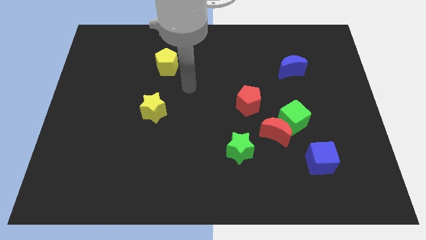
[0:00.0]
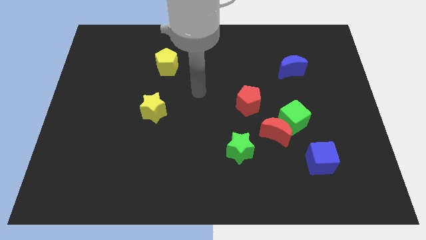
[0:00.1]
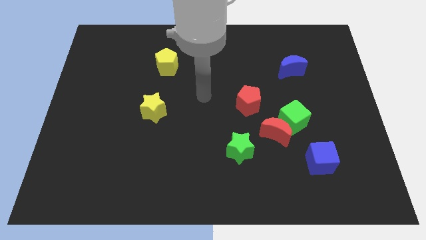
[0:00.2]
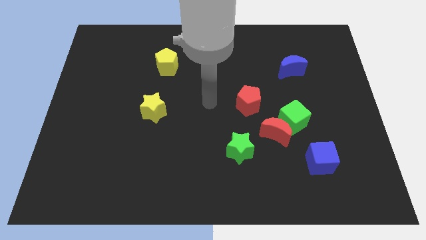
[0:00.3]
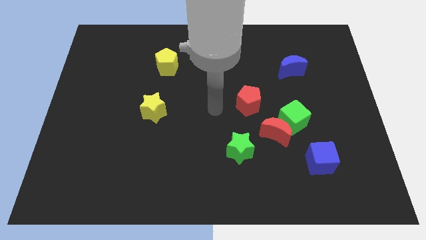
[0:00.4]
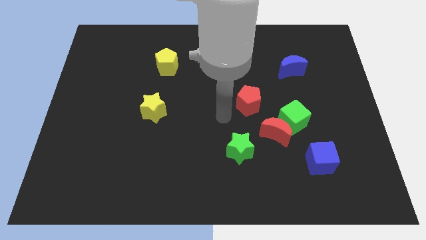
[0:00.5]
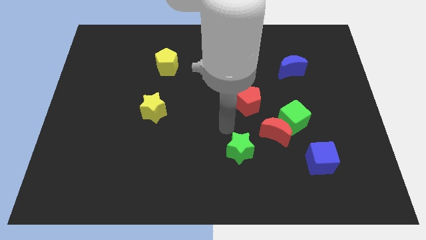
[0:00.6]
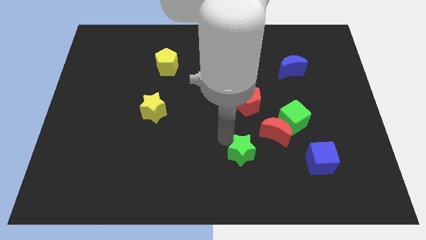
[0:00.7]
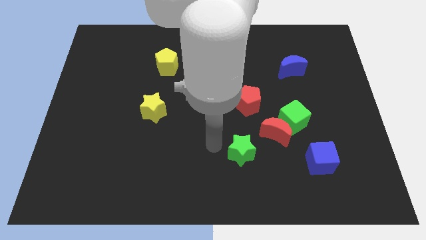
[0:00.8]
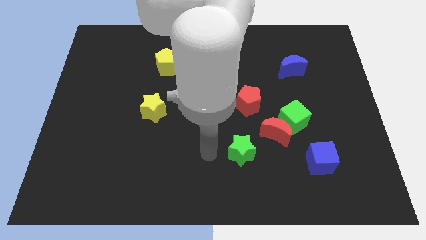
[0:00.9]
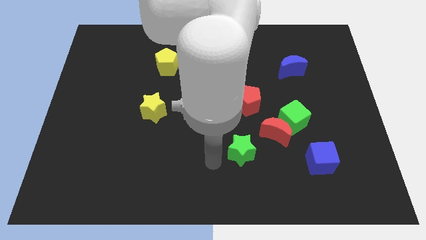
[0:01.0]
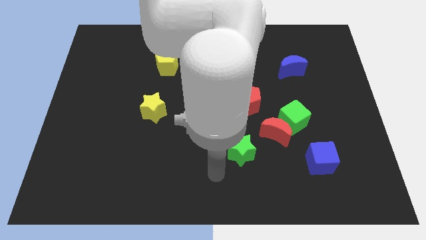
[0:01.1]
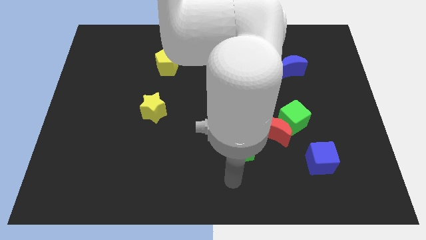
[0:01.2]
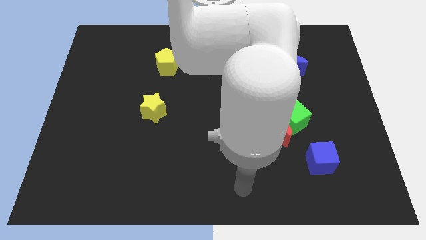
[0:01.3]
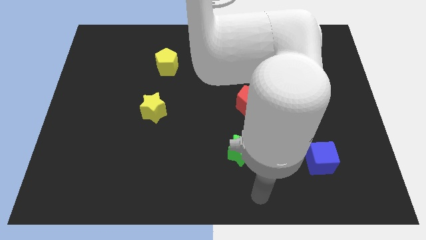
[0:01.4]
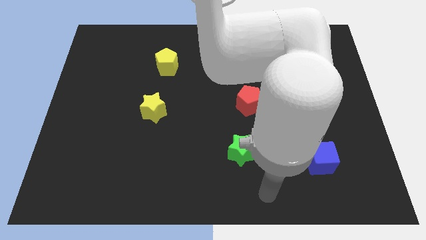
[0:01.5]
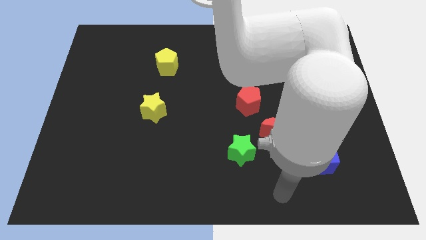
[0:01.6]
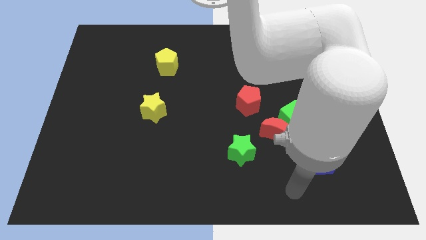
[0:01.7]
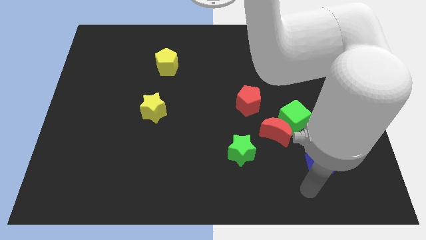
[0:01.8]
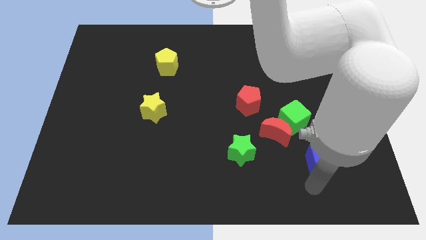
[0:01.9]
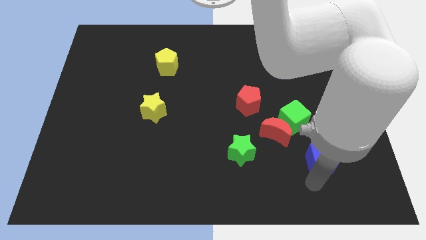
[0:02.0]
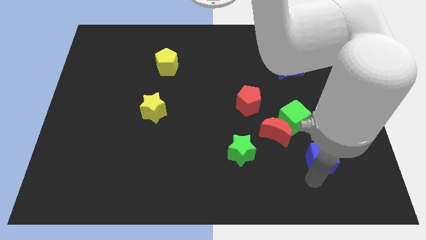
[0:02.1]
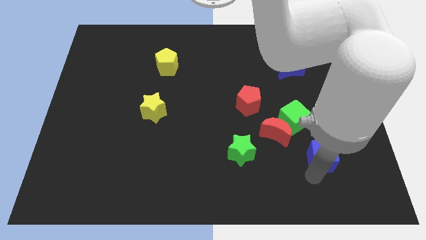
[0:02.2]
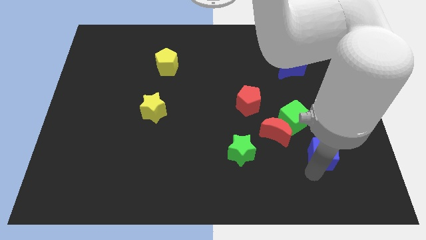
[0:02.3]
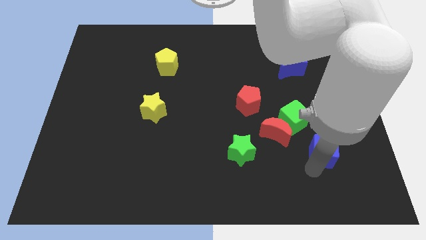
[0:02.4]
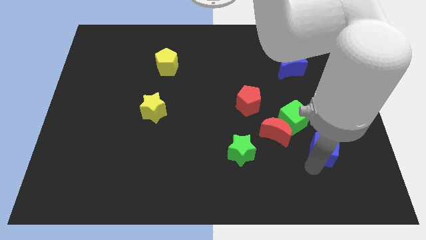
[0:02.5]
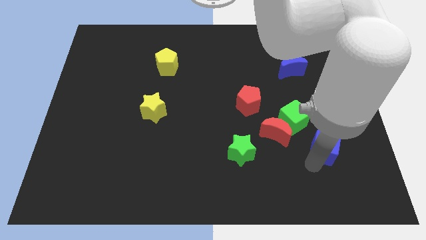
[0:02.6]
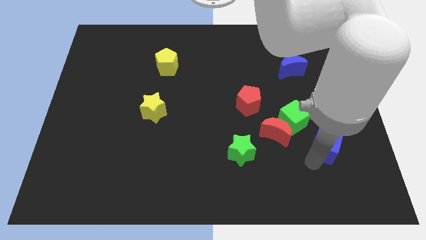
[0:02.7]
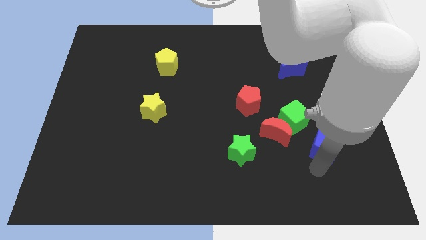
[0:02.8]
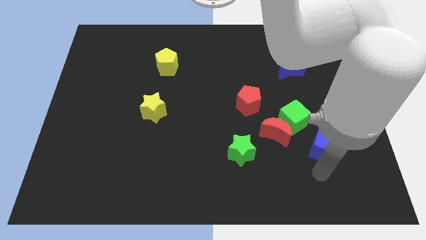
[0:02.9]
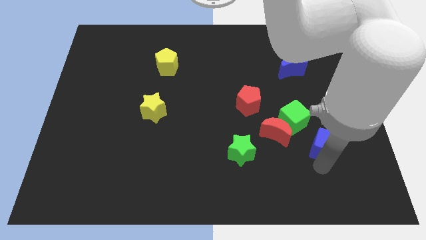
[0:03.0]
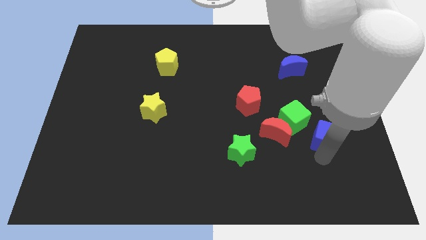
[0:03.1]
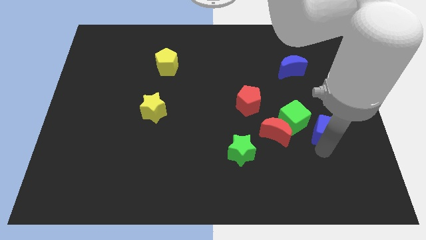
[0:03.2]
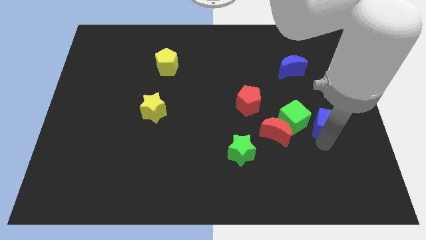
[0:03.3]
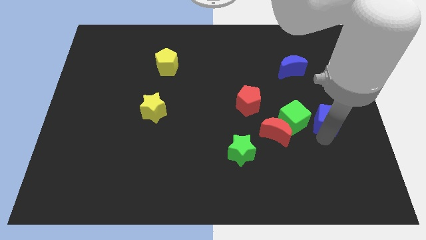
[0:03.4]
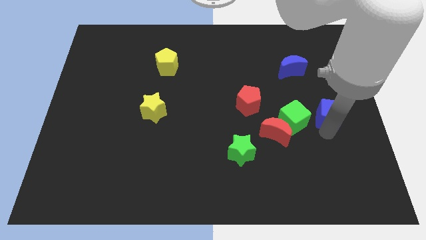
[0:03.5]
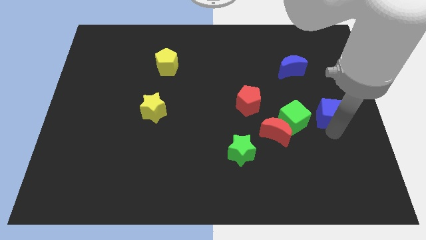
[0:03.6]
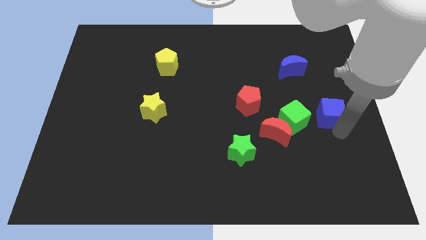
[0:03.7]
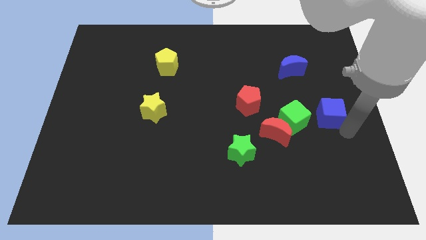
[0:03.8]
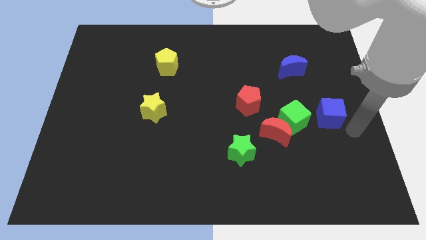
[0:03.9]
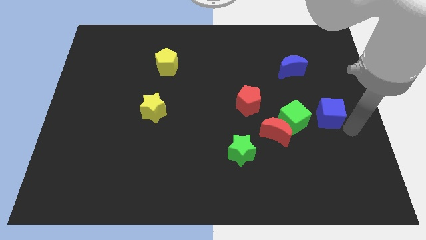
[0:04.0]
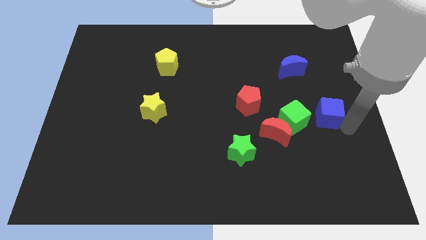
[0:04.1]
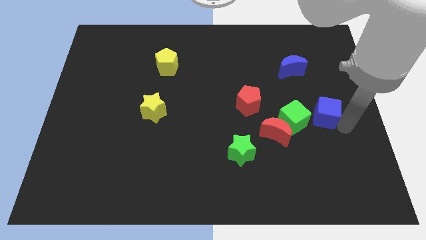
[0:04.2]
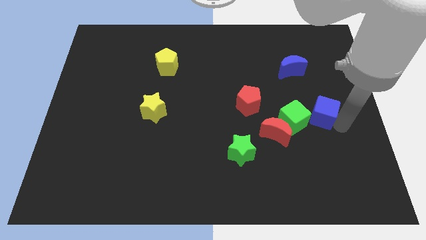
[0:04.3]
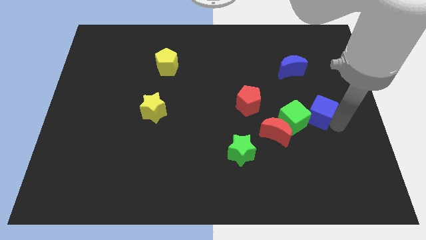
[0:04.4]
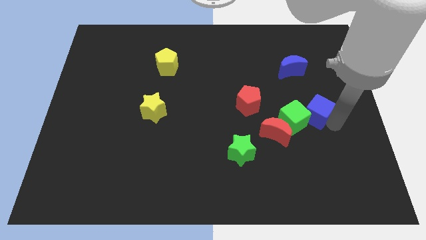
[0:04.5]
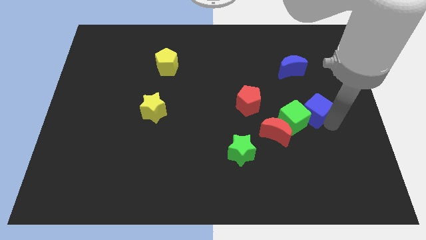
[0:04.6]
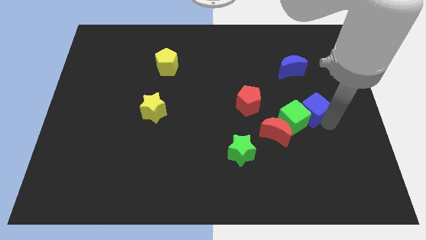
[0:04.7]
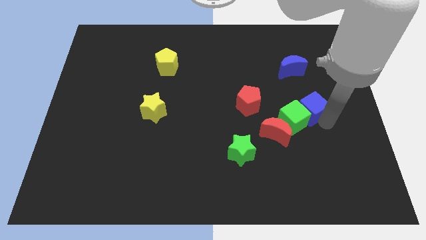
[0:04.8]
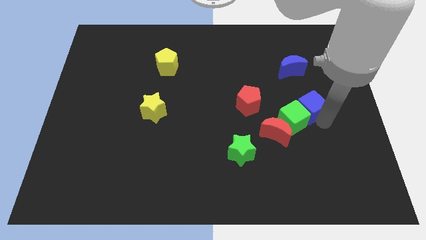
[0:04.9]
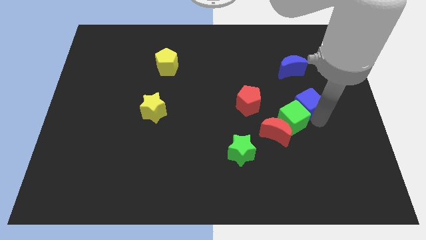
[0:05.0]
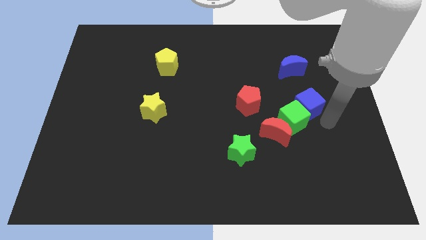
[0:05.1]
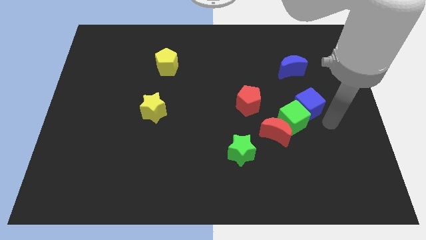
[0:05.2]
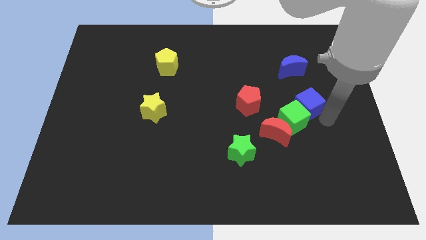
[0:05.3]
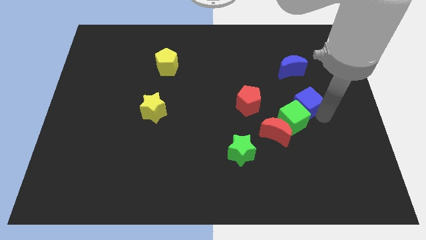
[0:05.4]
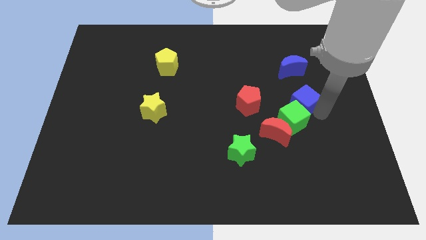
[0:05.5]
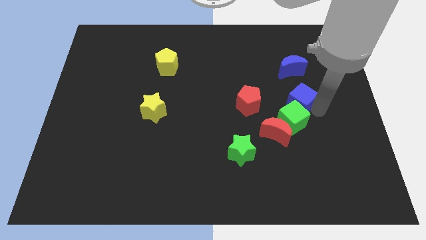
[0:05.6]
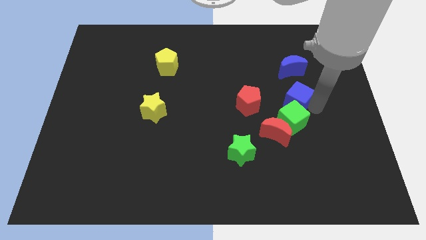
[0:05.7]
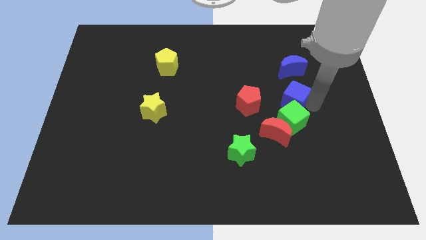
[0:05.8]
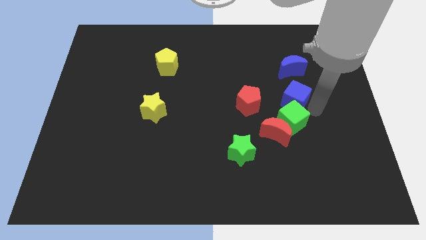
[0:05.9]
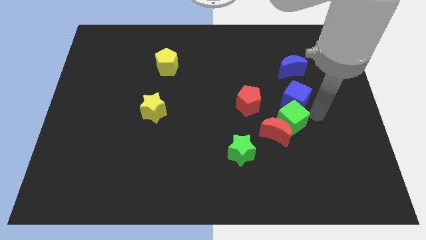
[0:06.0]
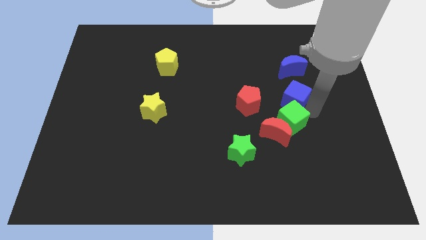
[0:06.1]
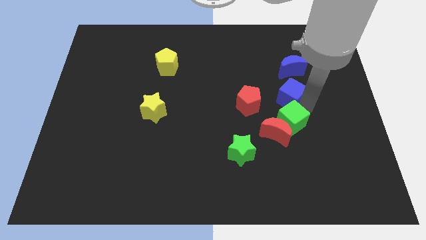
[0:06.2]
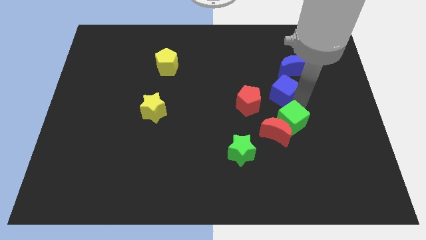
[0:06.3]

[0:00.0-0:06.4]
put the blue cube to the bottom left of the blue moon

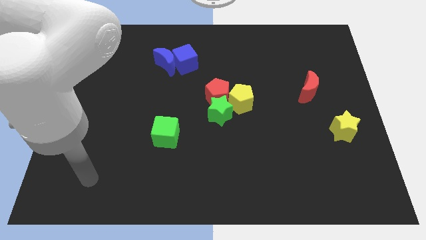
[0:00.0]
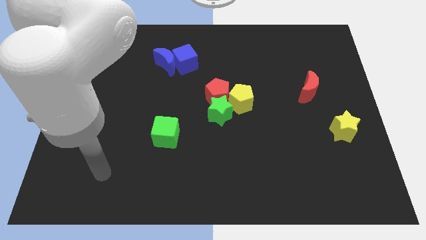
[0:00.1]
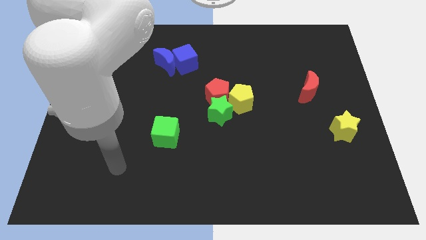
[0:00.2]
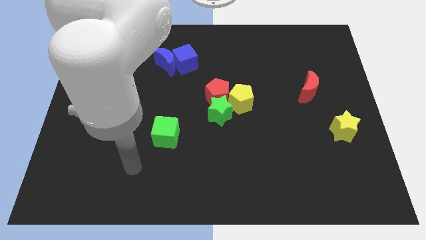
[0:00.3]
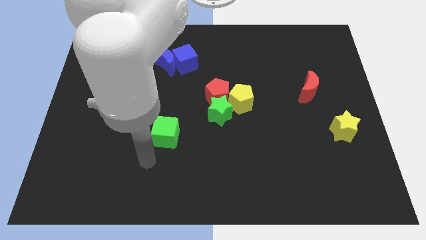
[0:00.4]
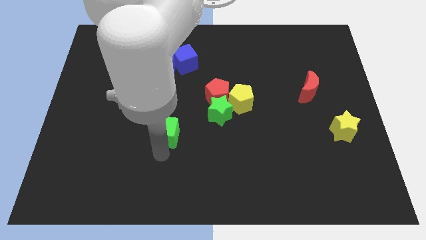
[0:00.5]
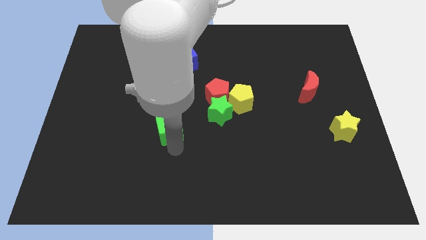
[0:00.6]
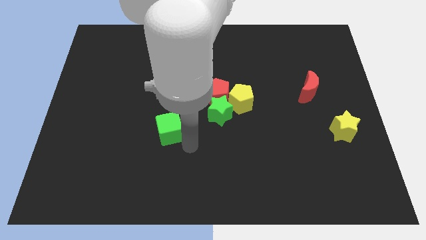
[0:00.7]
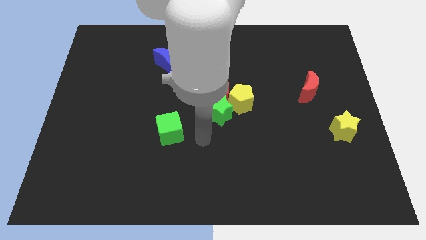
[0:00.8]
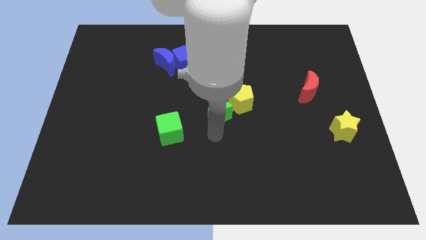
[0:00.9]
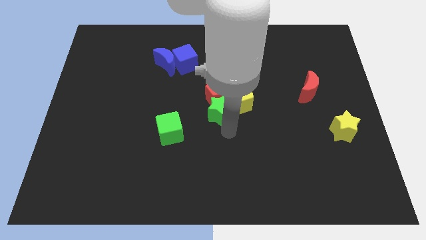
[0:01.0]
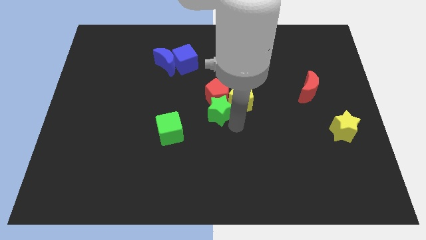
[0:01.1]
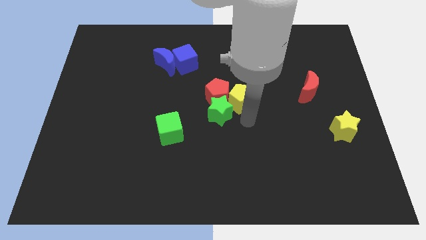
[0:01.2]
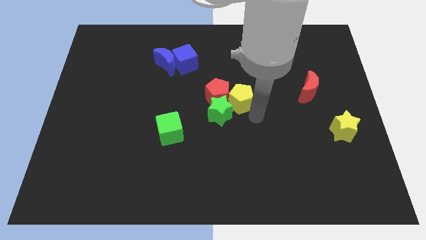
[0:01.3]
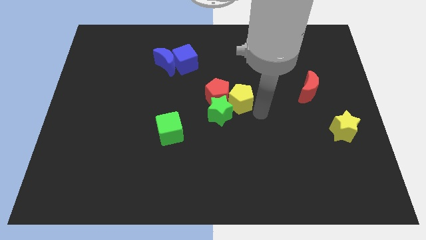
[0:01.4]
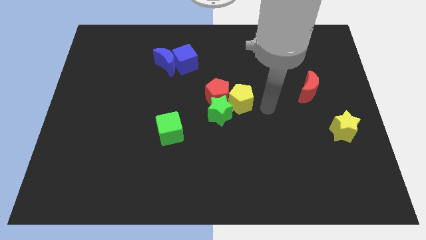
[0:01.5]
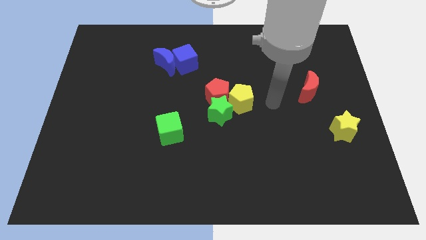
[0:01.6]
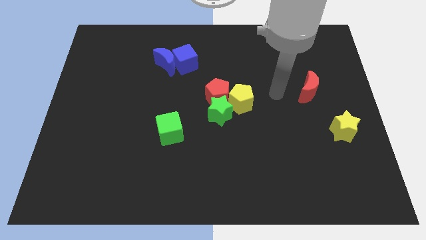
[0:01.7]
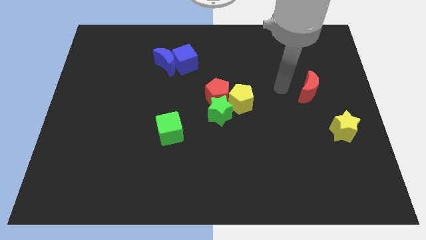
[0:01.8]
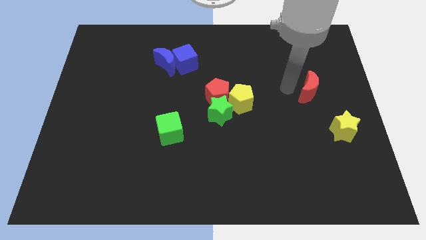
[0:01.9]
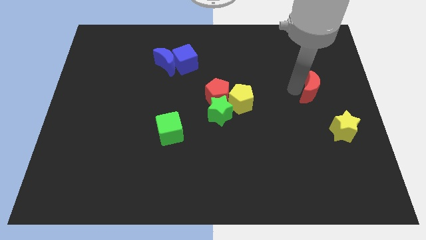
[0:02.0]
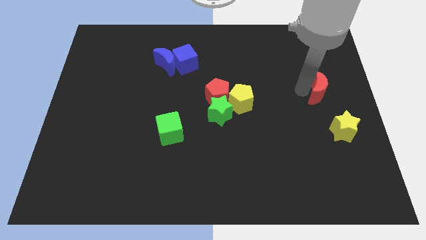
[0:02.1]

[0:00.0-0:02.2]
put the red moon to the top of the yellow star
